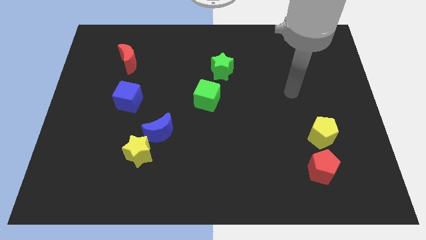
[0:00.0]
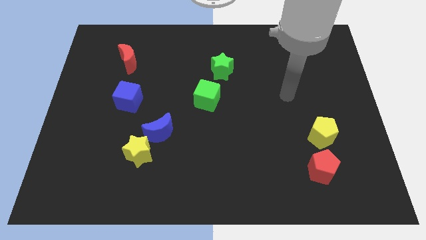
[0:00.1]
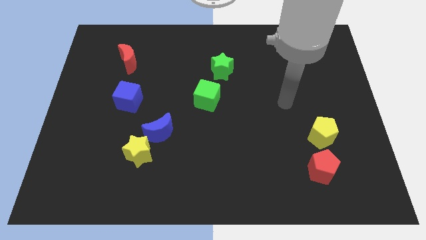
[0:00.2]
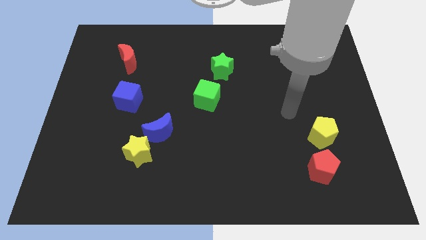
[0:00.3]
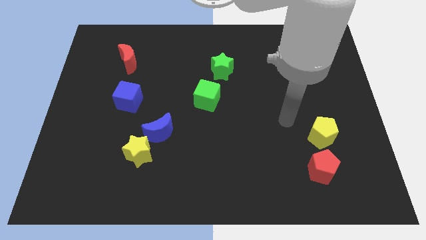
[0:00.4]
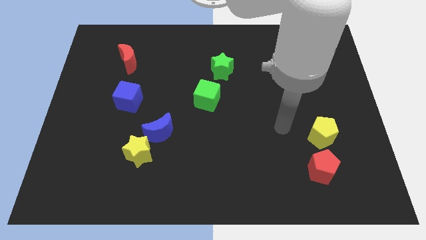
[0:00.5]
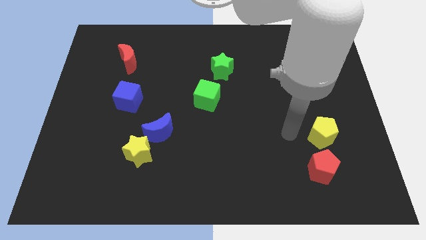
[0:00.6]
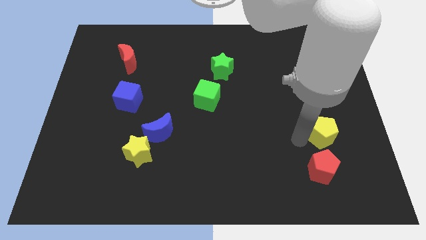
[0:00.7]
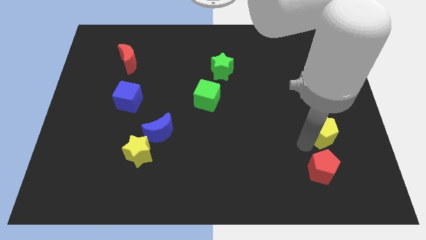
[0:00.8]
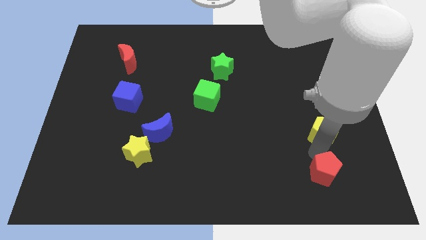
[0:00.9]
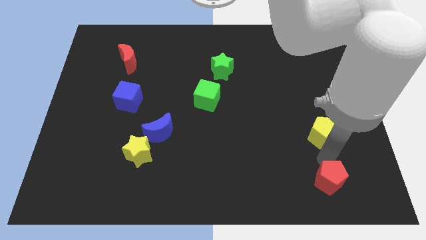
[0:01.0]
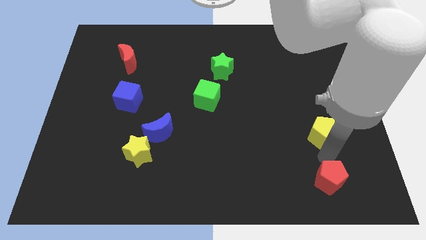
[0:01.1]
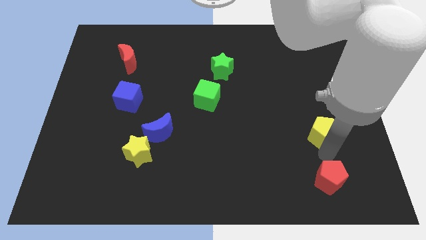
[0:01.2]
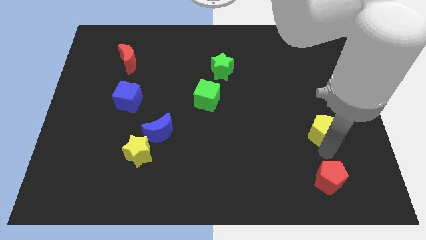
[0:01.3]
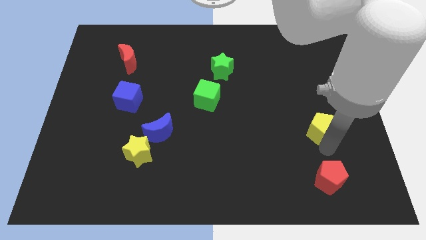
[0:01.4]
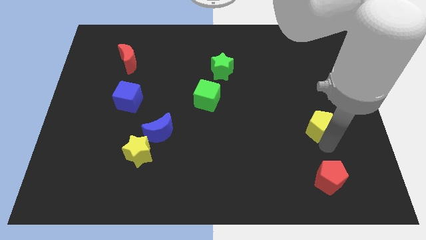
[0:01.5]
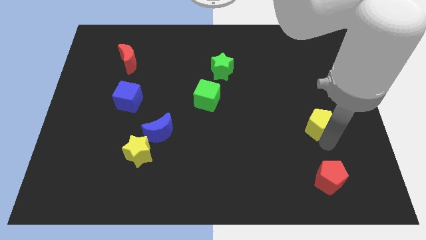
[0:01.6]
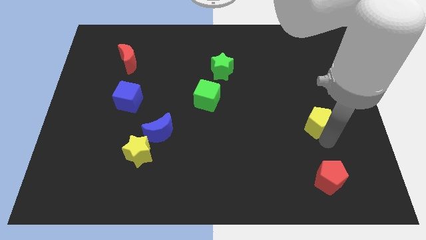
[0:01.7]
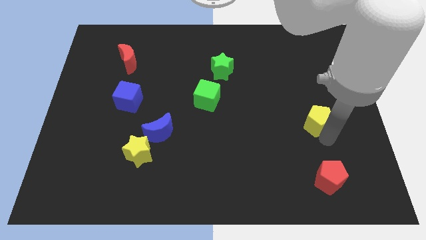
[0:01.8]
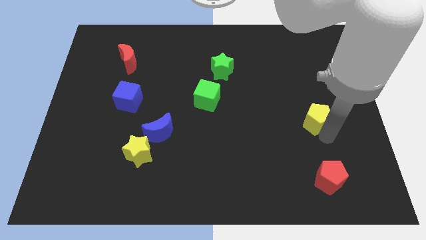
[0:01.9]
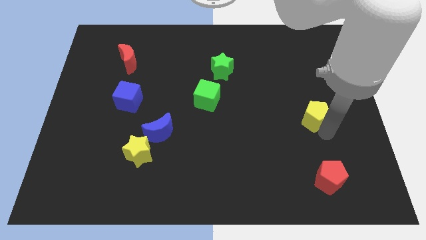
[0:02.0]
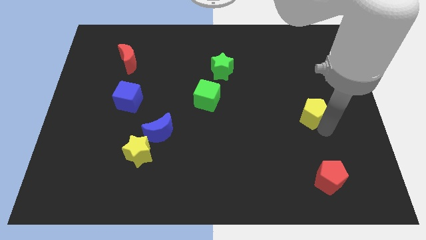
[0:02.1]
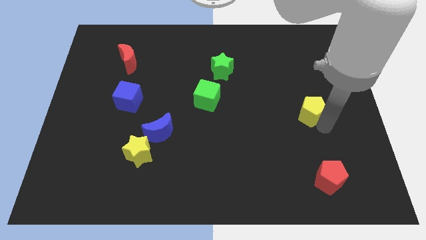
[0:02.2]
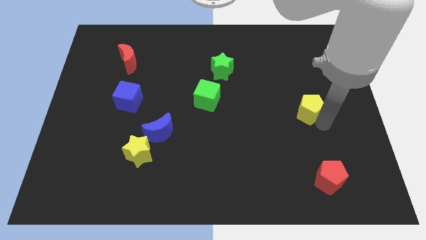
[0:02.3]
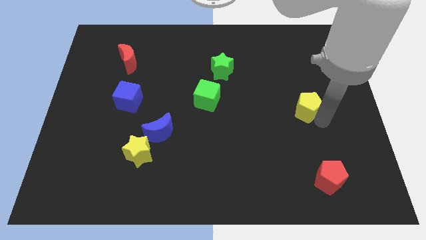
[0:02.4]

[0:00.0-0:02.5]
slightly move the yellow pentagon up

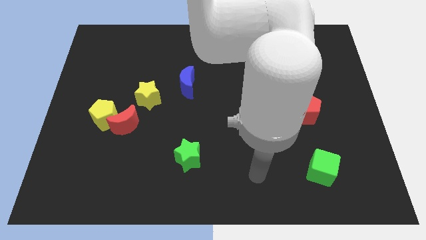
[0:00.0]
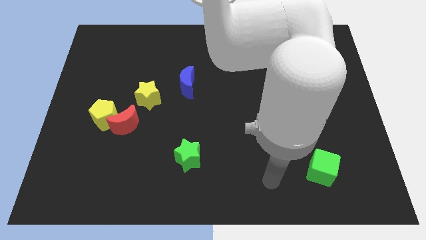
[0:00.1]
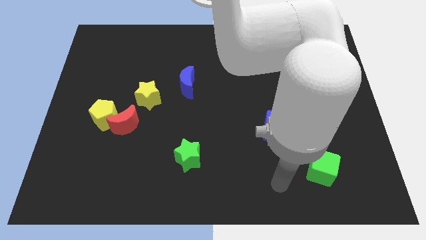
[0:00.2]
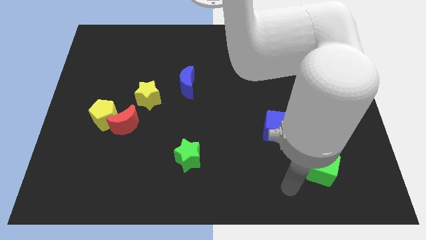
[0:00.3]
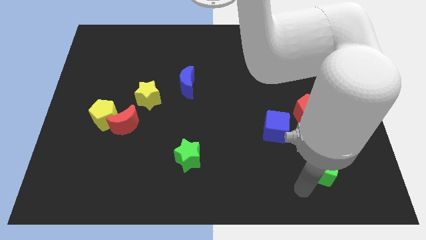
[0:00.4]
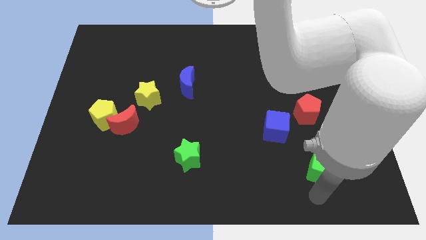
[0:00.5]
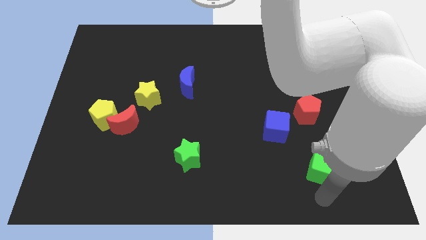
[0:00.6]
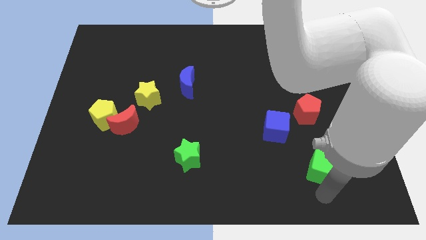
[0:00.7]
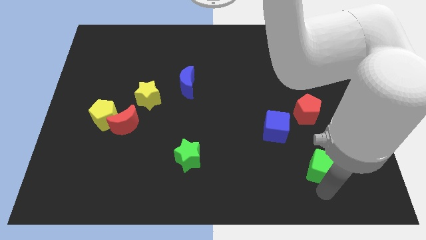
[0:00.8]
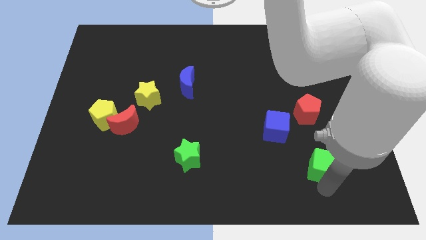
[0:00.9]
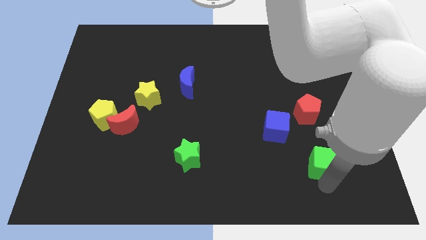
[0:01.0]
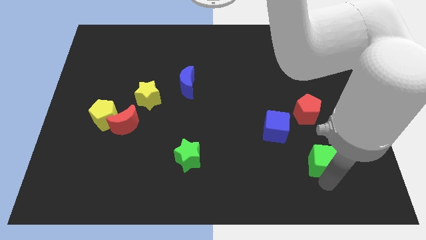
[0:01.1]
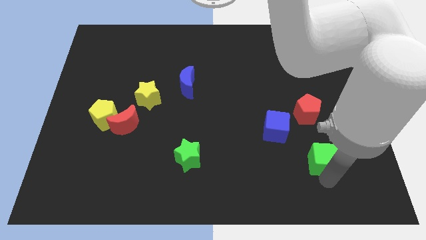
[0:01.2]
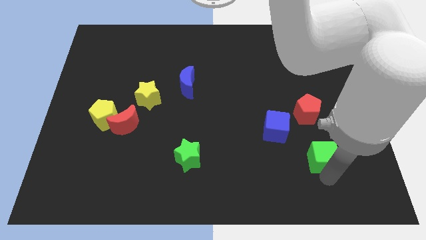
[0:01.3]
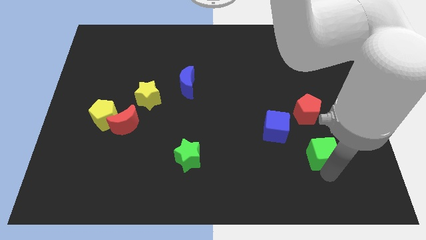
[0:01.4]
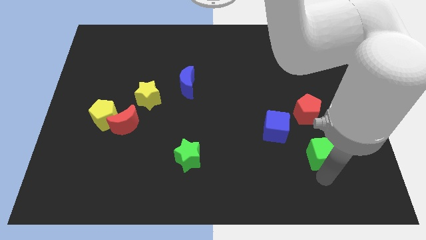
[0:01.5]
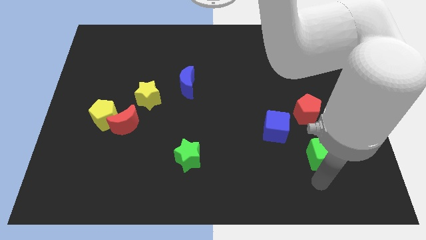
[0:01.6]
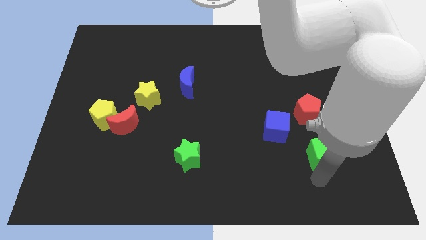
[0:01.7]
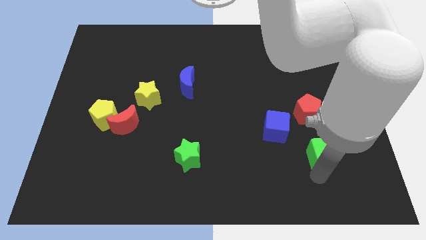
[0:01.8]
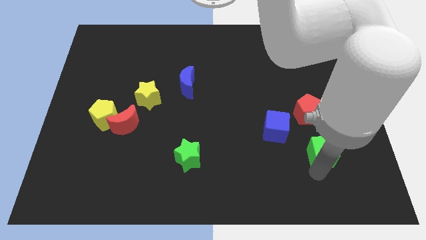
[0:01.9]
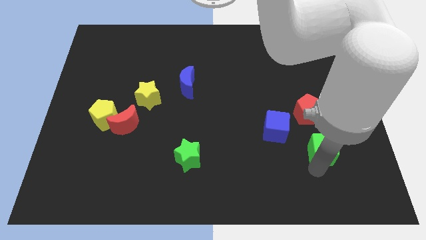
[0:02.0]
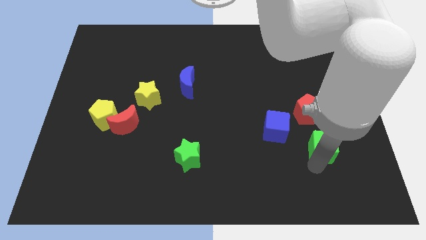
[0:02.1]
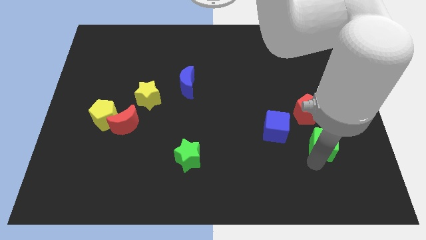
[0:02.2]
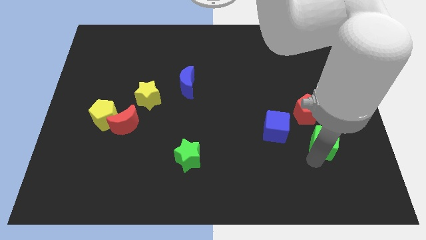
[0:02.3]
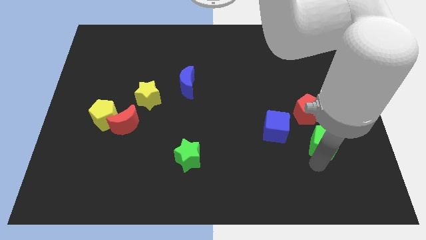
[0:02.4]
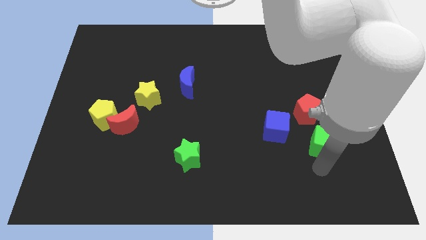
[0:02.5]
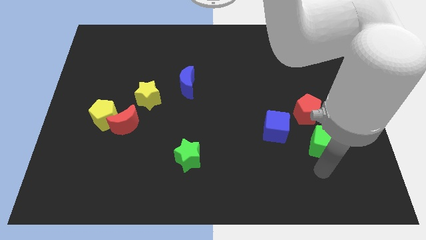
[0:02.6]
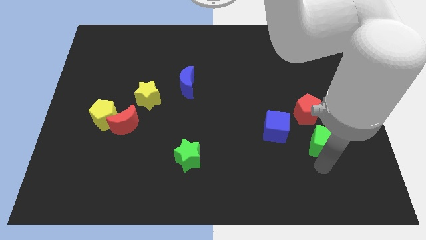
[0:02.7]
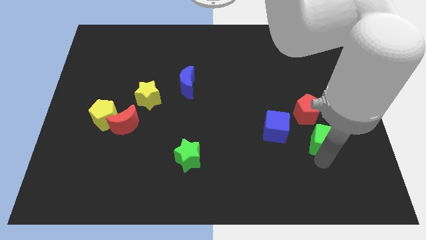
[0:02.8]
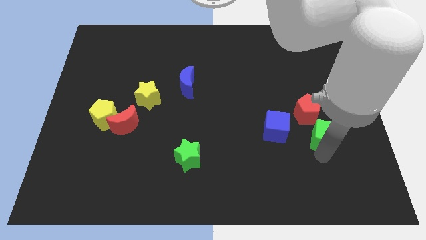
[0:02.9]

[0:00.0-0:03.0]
move the green cube up a little

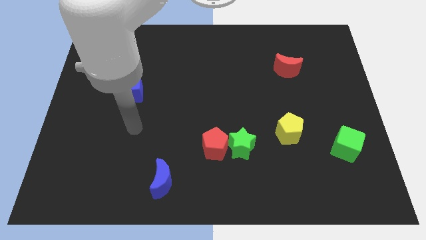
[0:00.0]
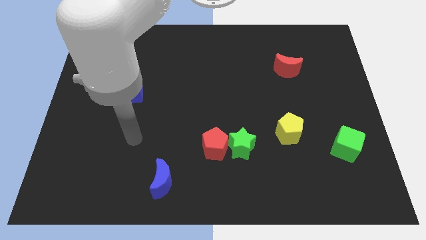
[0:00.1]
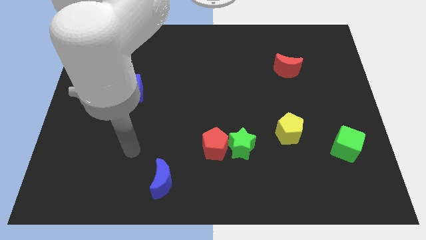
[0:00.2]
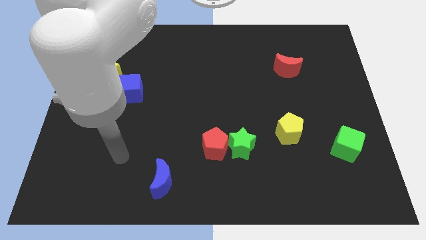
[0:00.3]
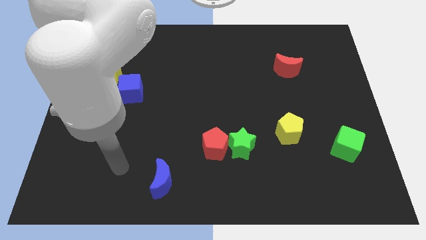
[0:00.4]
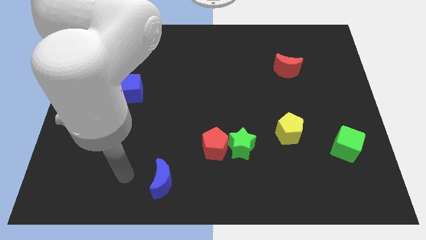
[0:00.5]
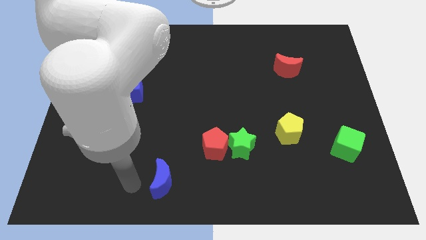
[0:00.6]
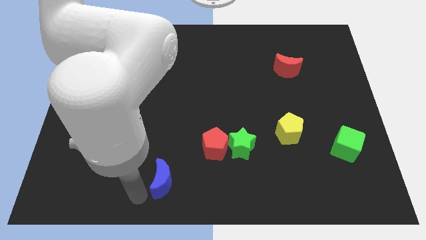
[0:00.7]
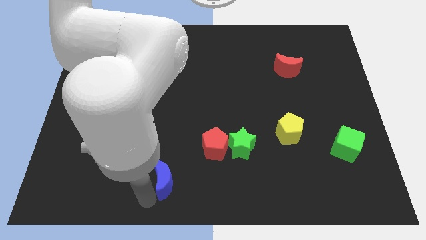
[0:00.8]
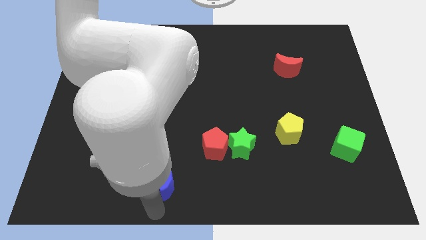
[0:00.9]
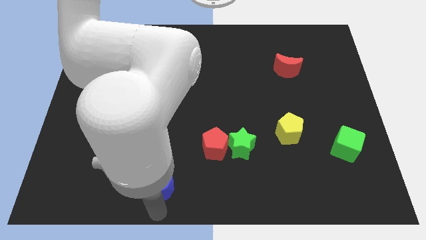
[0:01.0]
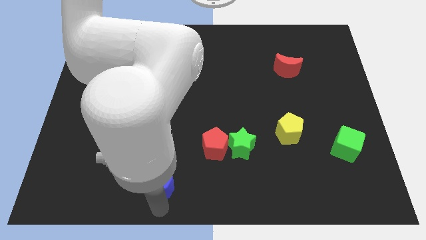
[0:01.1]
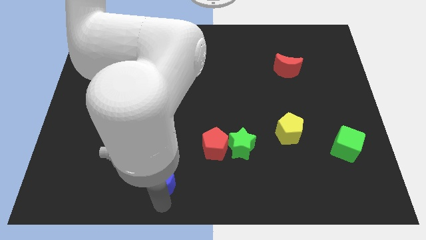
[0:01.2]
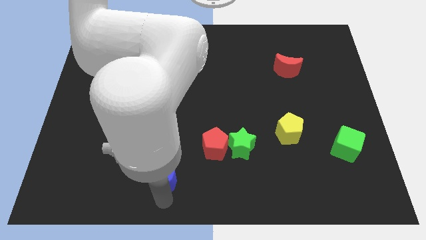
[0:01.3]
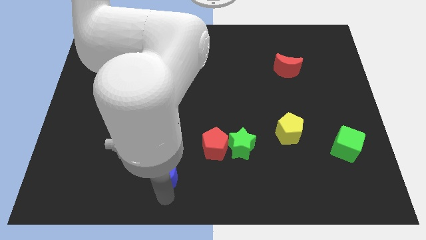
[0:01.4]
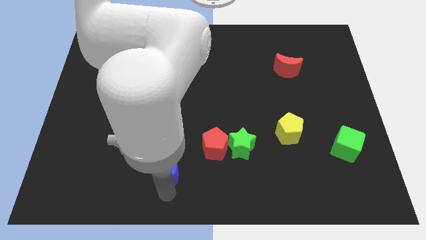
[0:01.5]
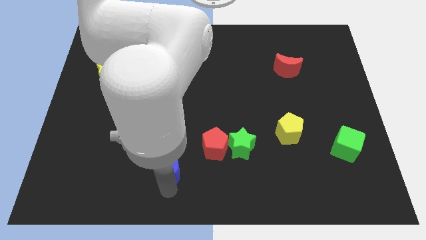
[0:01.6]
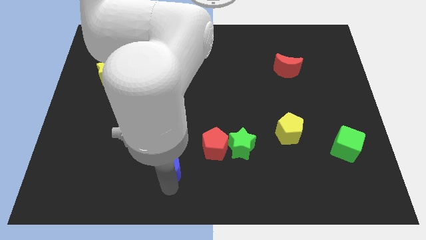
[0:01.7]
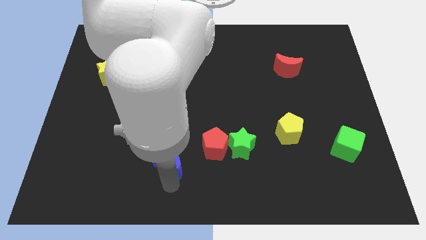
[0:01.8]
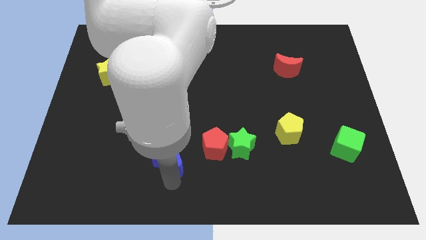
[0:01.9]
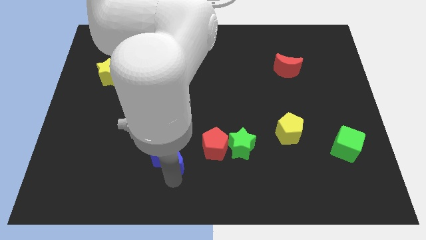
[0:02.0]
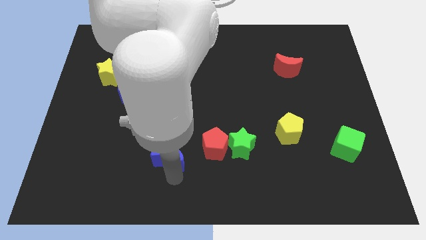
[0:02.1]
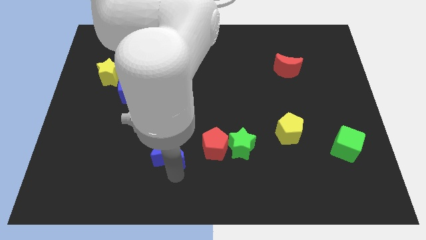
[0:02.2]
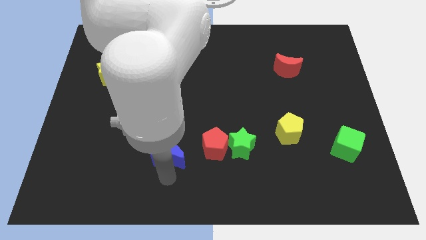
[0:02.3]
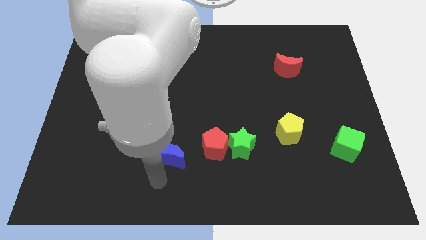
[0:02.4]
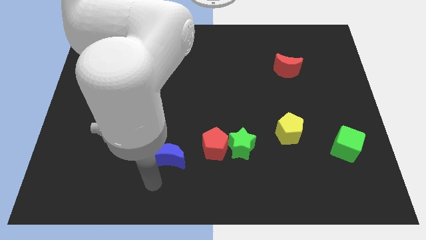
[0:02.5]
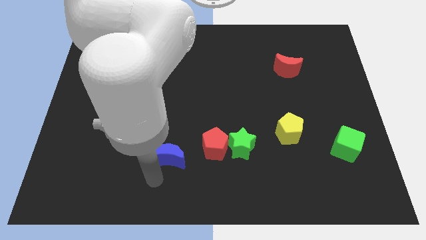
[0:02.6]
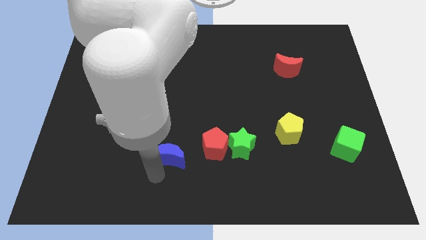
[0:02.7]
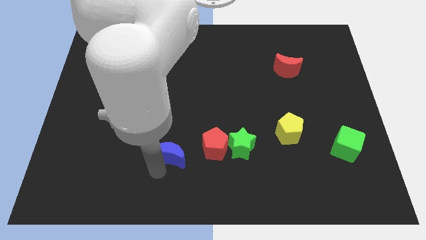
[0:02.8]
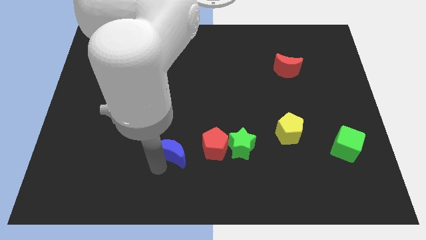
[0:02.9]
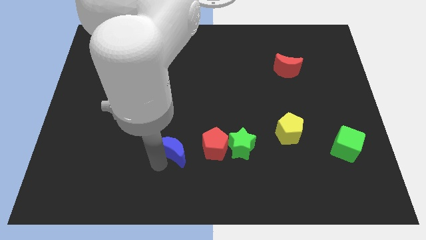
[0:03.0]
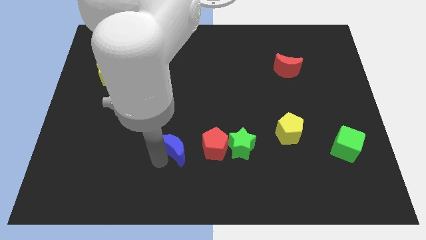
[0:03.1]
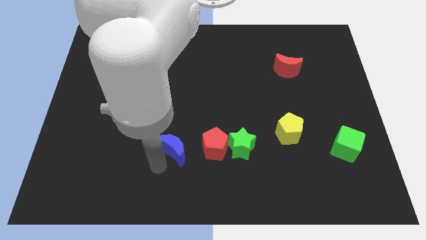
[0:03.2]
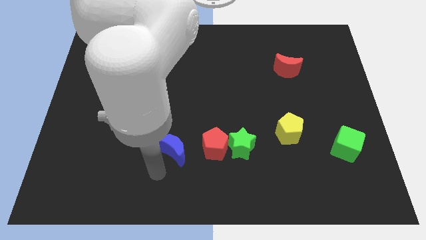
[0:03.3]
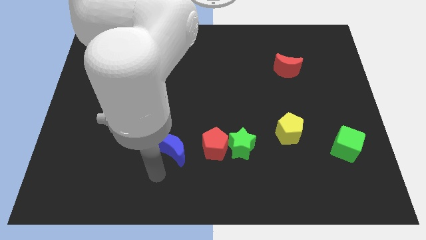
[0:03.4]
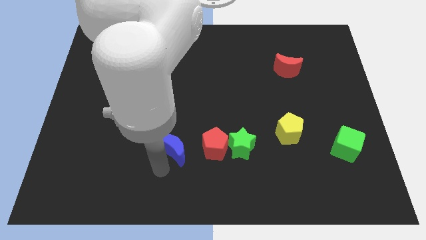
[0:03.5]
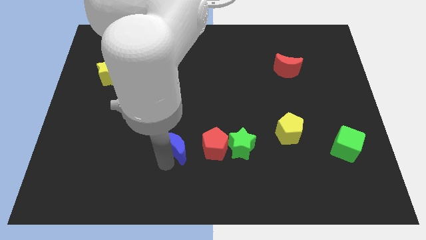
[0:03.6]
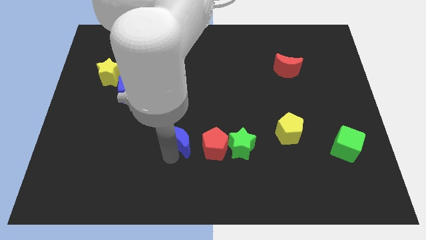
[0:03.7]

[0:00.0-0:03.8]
push the blue moon up and right diagonally slightly
